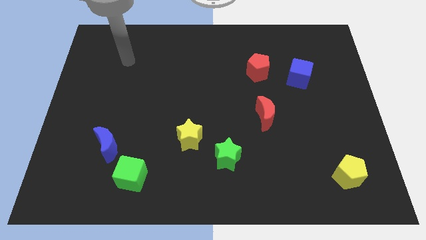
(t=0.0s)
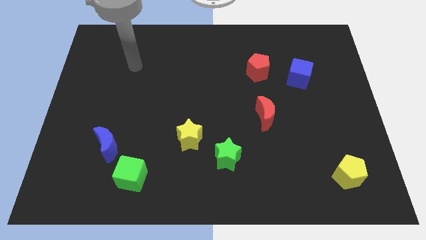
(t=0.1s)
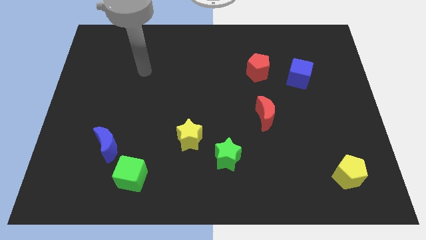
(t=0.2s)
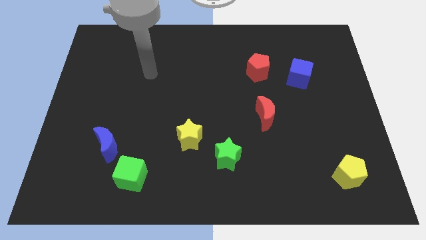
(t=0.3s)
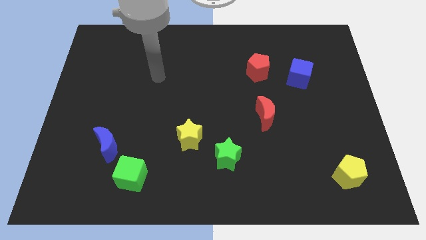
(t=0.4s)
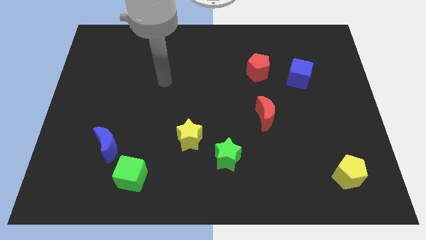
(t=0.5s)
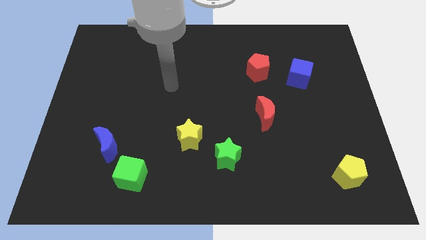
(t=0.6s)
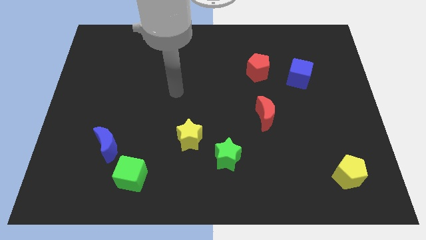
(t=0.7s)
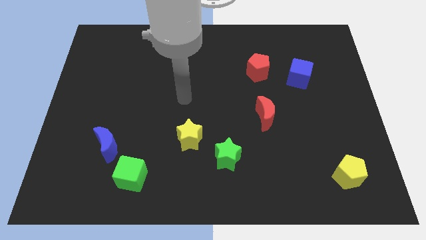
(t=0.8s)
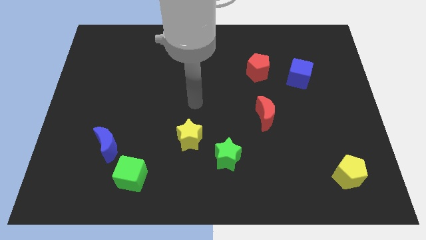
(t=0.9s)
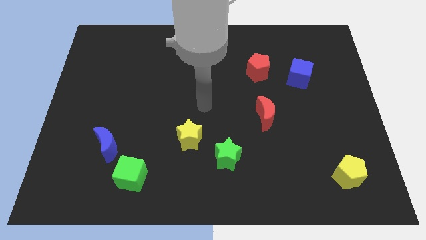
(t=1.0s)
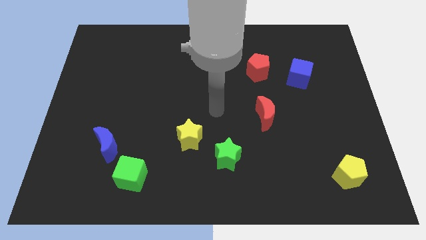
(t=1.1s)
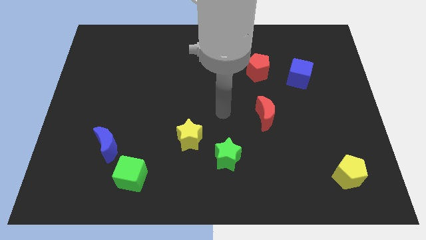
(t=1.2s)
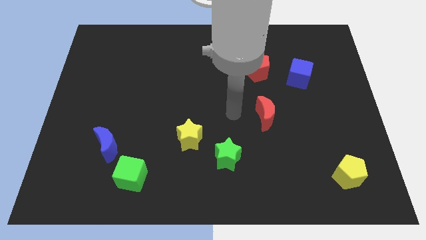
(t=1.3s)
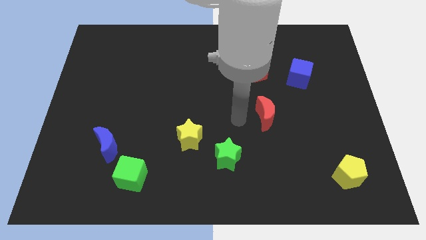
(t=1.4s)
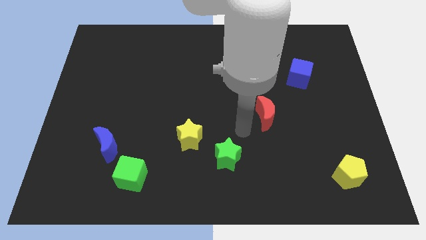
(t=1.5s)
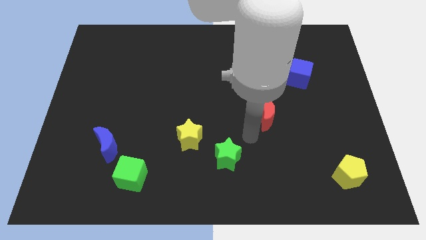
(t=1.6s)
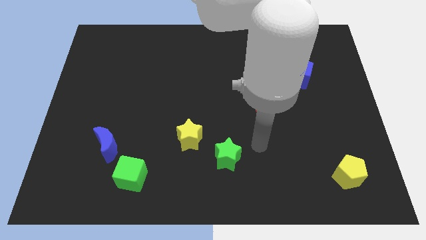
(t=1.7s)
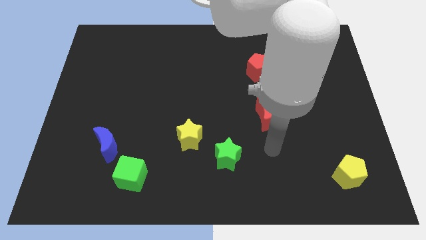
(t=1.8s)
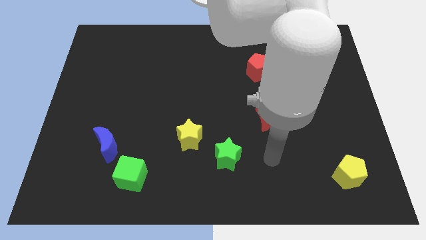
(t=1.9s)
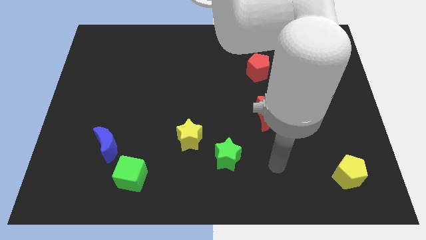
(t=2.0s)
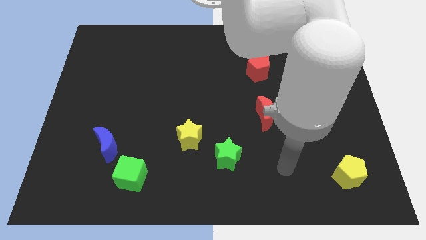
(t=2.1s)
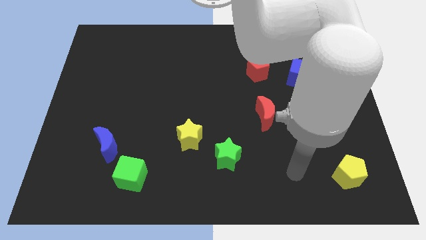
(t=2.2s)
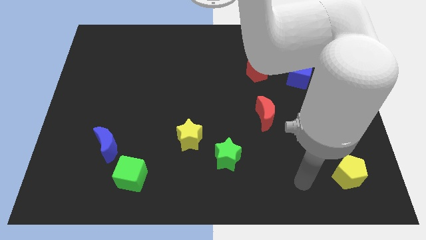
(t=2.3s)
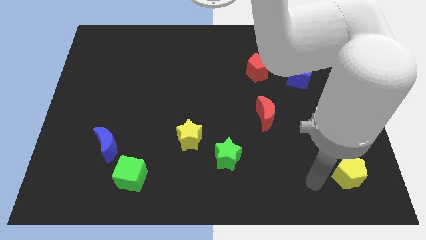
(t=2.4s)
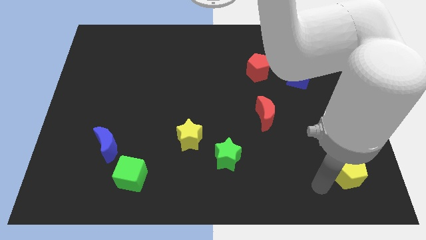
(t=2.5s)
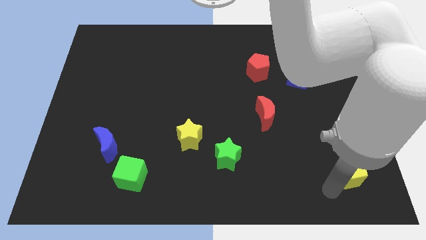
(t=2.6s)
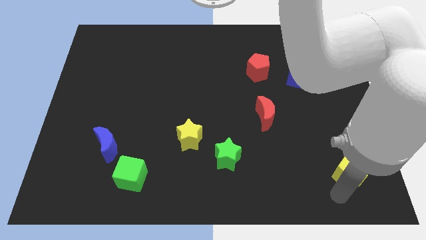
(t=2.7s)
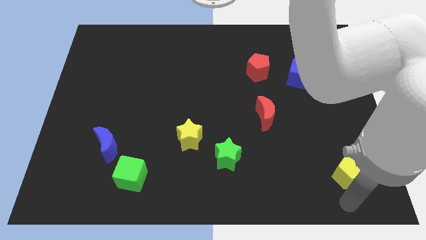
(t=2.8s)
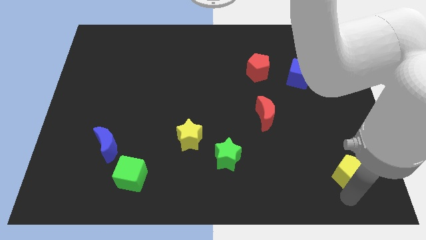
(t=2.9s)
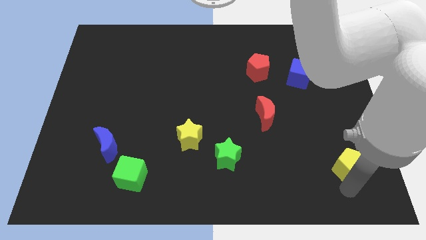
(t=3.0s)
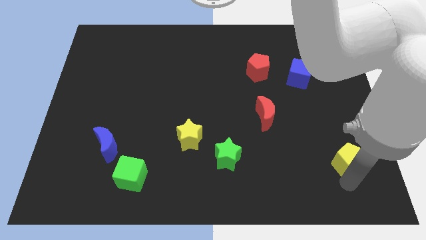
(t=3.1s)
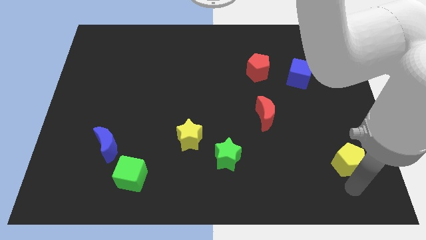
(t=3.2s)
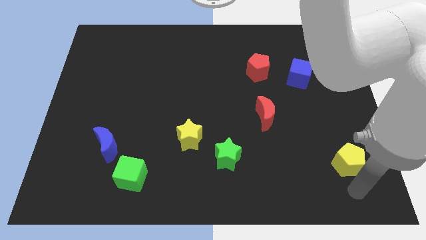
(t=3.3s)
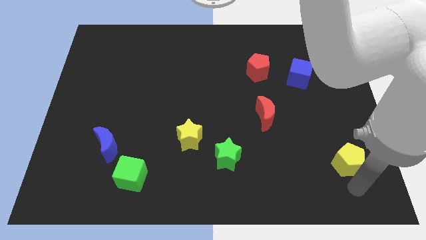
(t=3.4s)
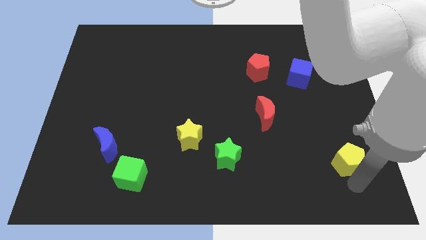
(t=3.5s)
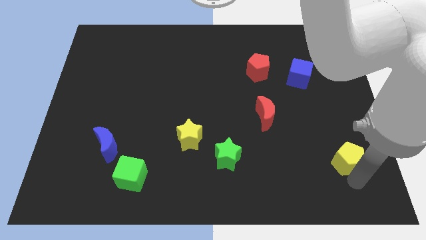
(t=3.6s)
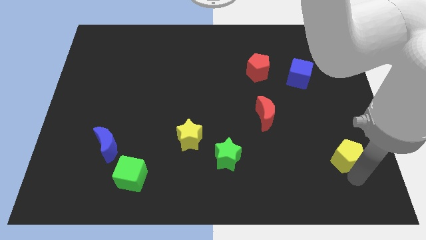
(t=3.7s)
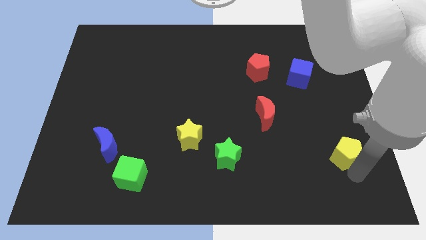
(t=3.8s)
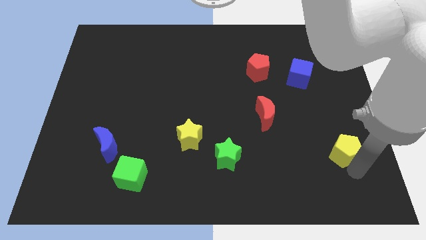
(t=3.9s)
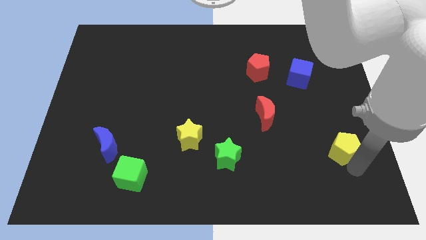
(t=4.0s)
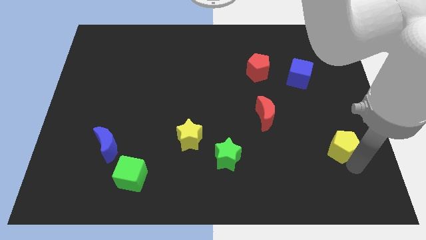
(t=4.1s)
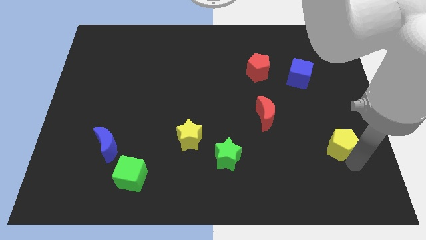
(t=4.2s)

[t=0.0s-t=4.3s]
slide the yellow pentagon slightly upwards

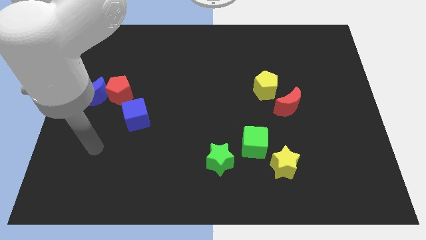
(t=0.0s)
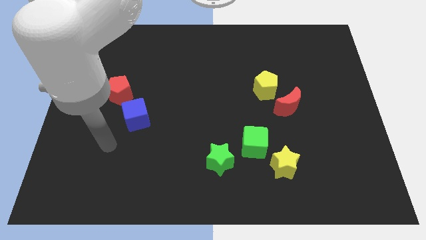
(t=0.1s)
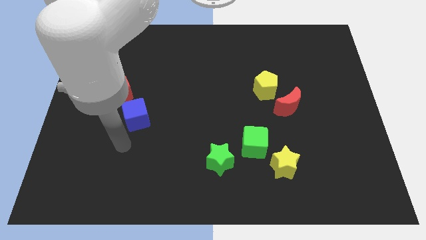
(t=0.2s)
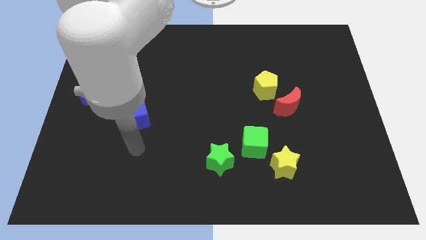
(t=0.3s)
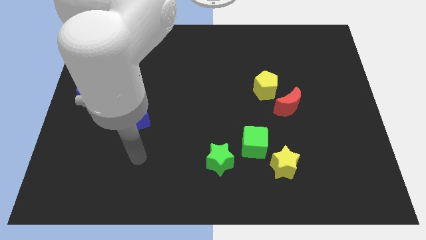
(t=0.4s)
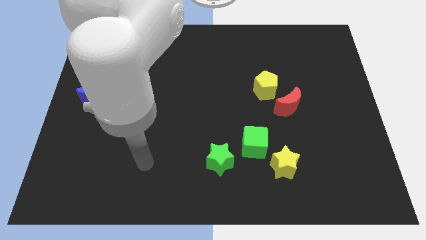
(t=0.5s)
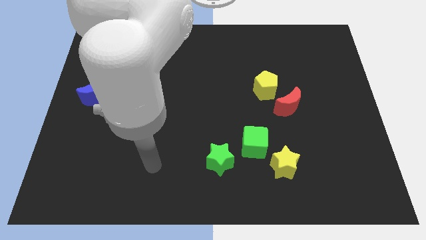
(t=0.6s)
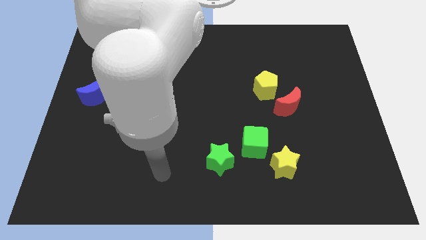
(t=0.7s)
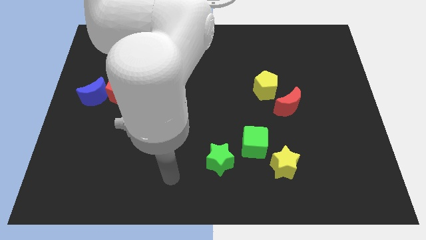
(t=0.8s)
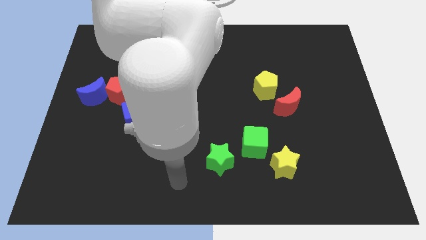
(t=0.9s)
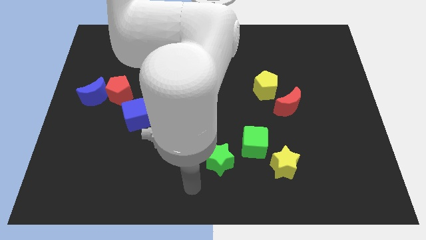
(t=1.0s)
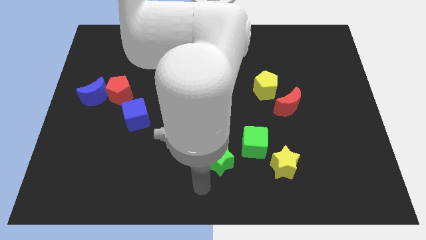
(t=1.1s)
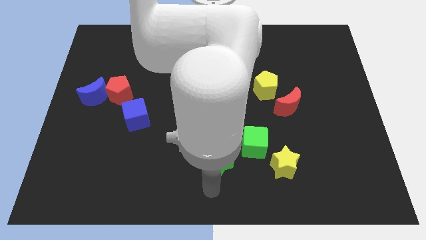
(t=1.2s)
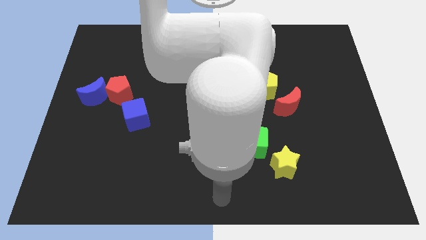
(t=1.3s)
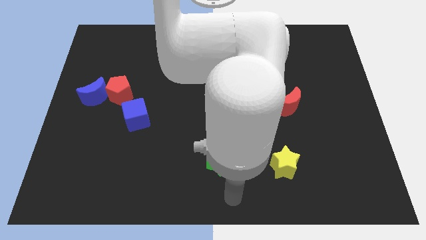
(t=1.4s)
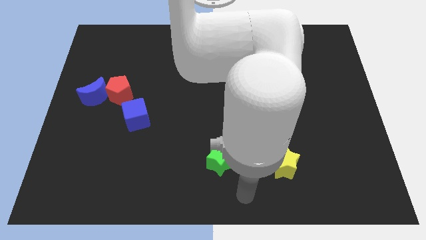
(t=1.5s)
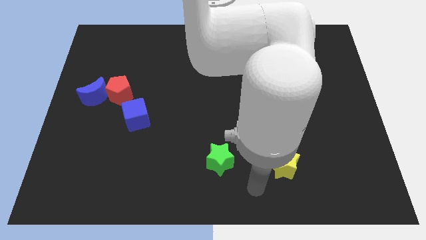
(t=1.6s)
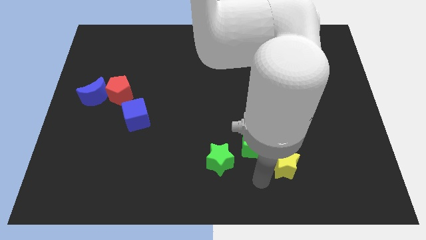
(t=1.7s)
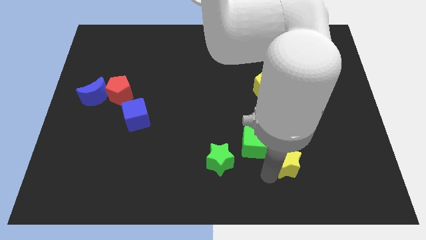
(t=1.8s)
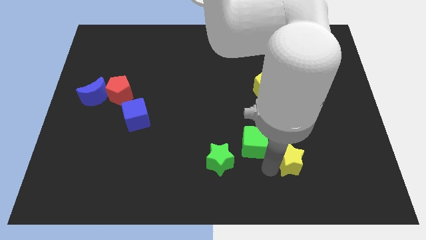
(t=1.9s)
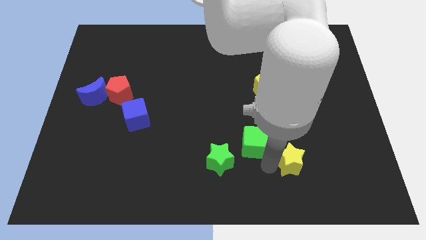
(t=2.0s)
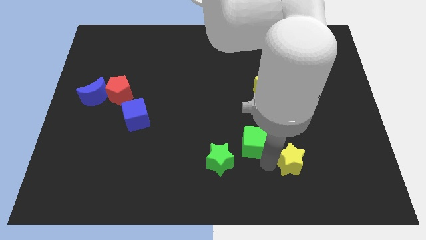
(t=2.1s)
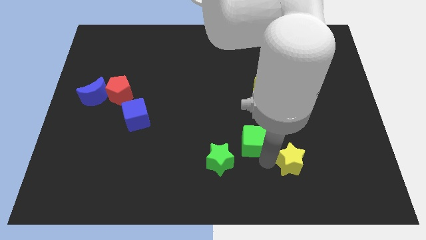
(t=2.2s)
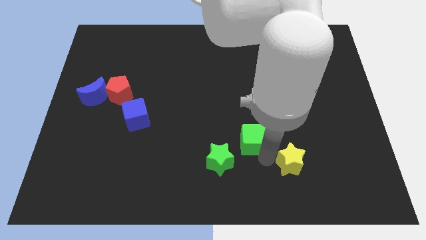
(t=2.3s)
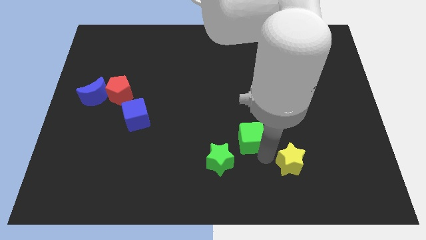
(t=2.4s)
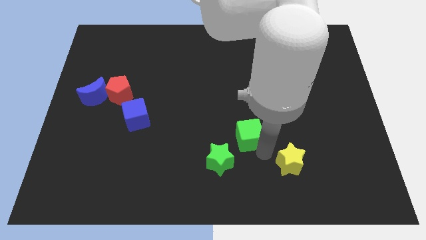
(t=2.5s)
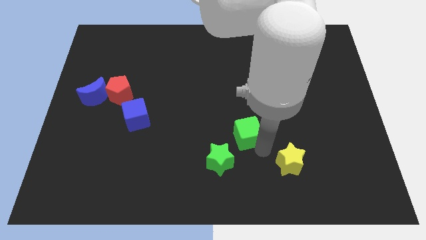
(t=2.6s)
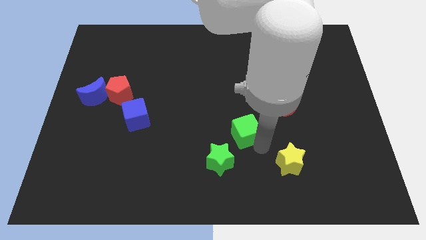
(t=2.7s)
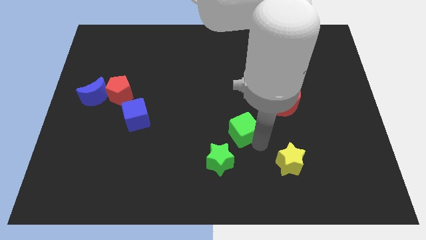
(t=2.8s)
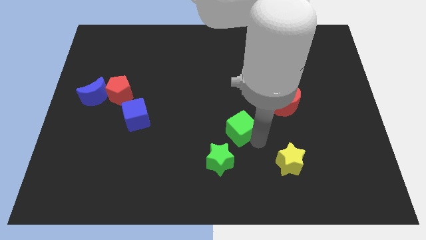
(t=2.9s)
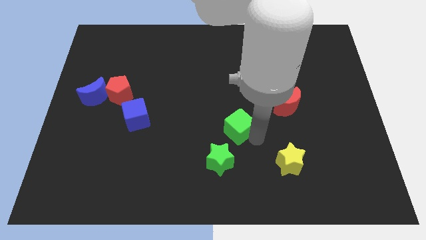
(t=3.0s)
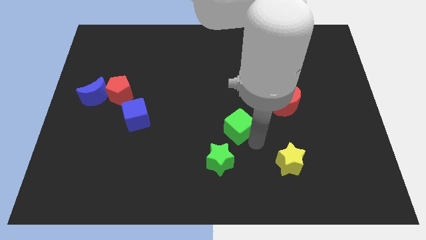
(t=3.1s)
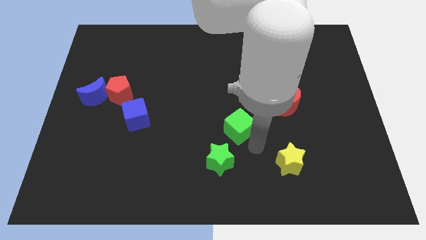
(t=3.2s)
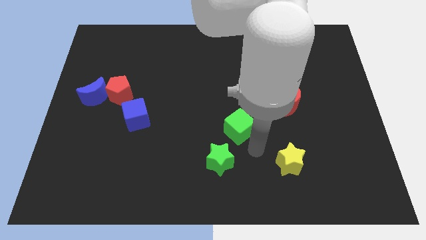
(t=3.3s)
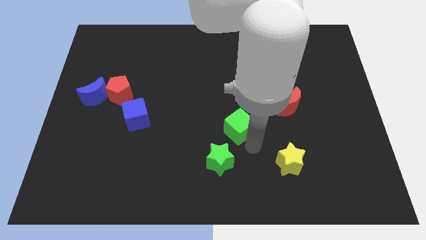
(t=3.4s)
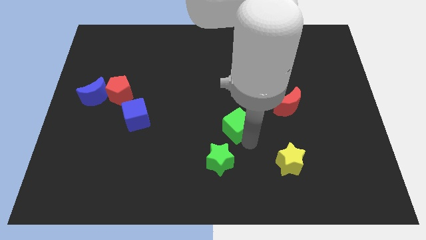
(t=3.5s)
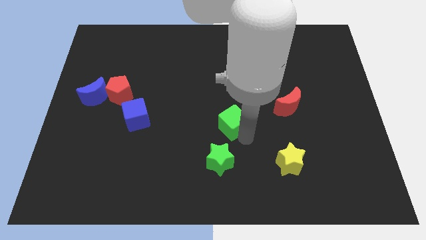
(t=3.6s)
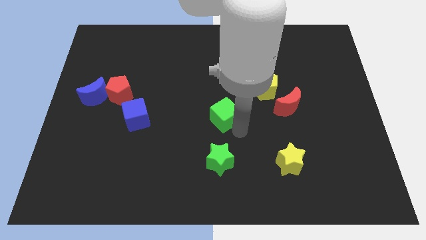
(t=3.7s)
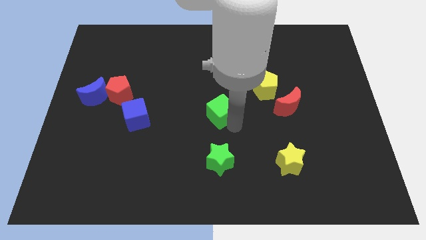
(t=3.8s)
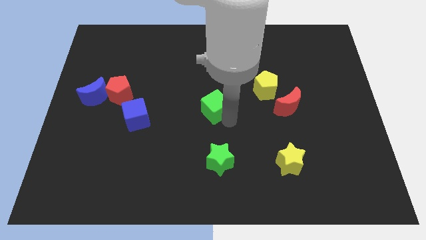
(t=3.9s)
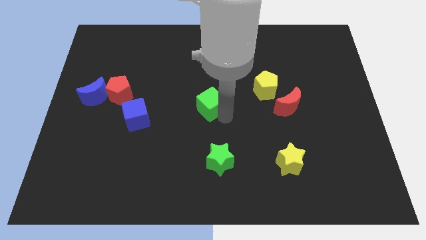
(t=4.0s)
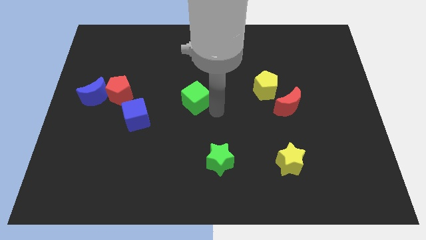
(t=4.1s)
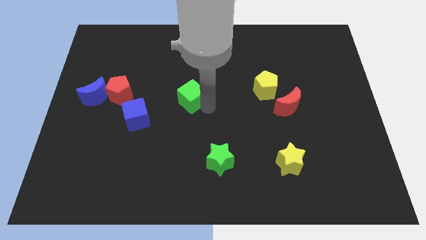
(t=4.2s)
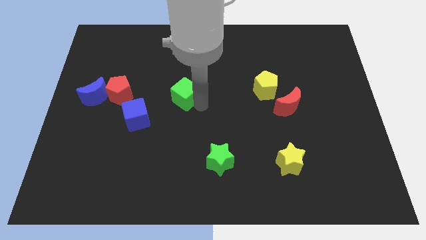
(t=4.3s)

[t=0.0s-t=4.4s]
slide the green cube up and then left
